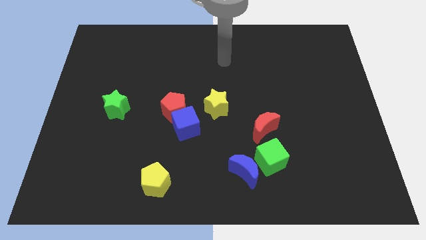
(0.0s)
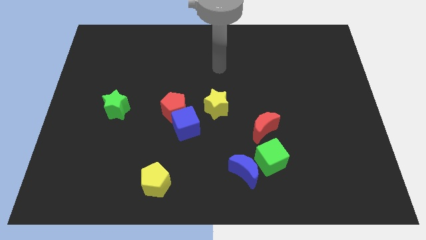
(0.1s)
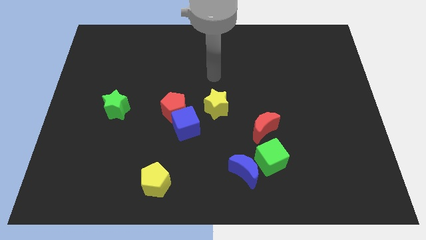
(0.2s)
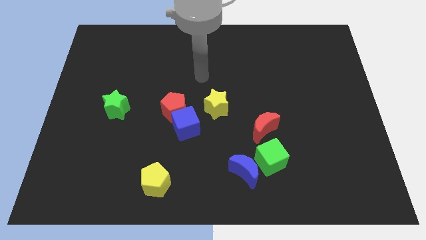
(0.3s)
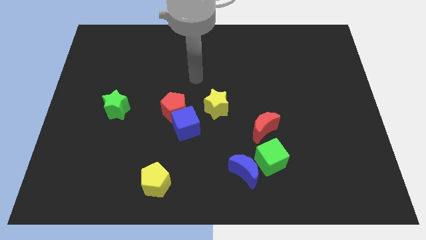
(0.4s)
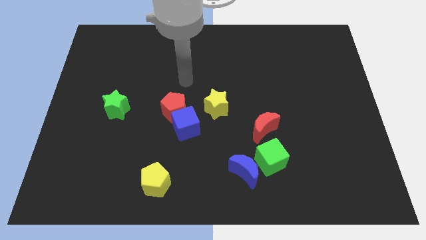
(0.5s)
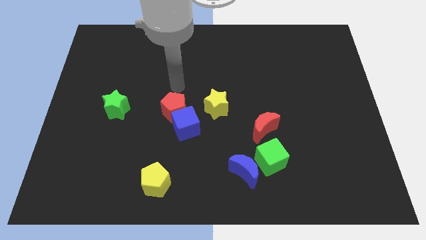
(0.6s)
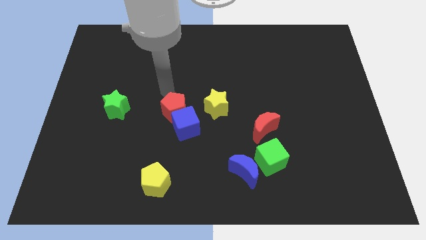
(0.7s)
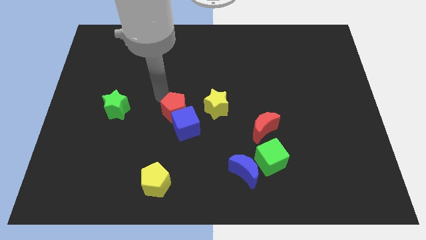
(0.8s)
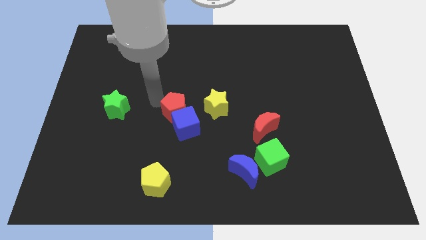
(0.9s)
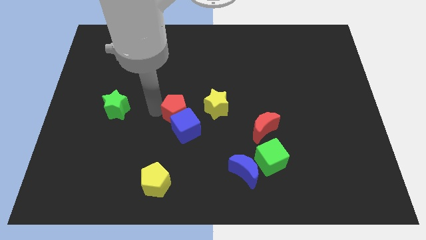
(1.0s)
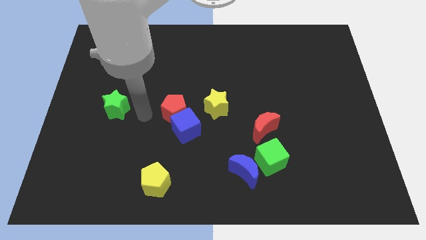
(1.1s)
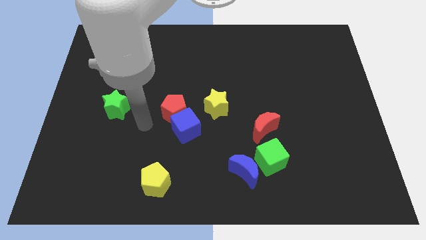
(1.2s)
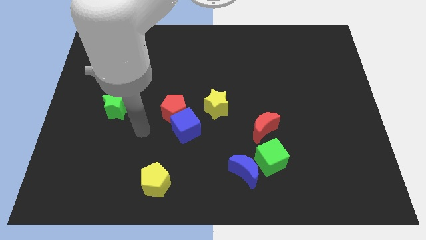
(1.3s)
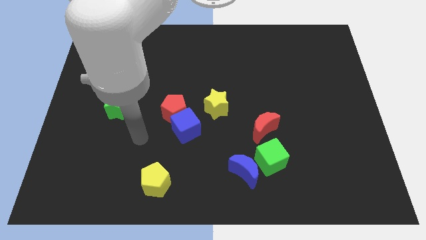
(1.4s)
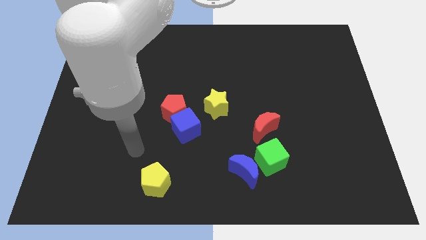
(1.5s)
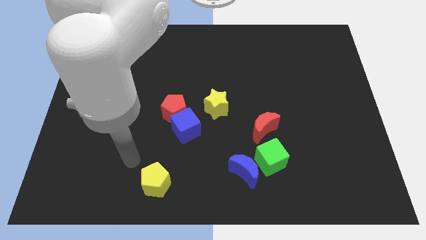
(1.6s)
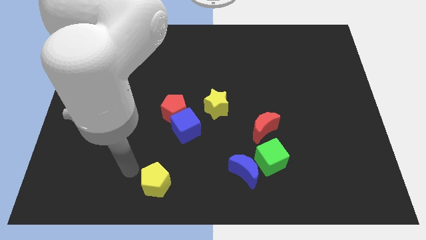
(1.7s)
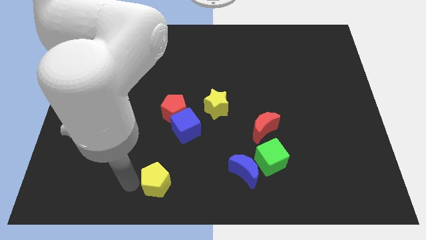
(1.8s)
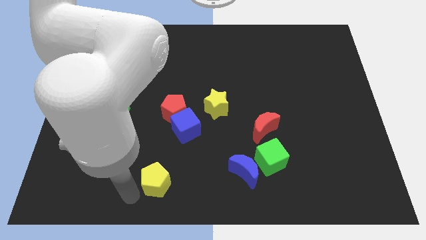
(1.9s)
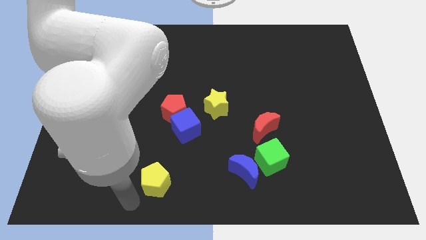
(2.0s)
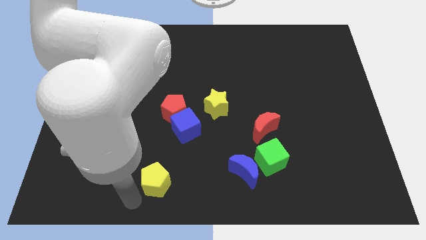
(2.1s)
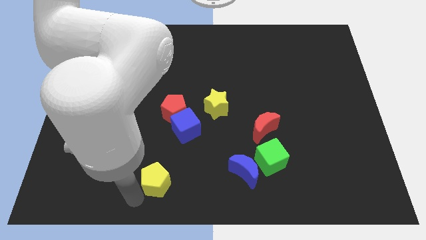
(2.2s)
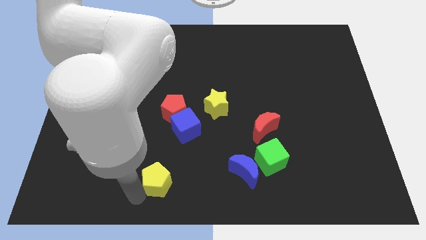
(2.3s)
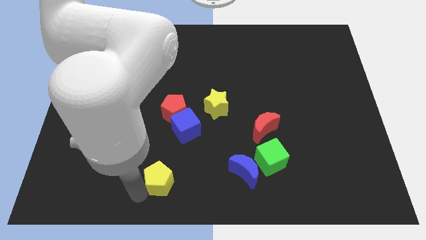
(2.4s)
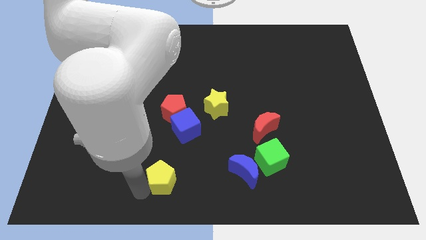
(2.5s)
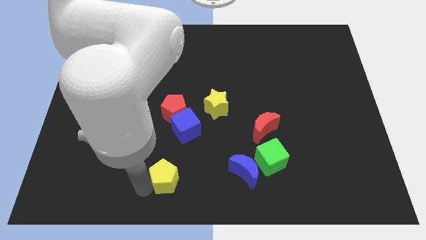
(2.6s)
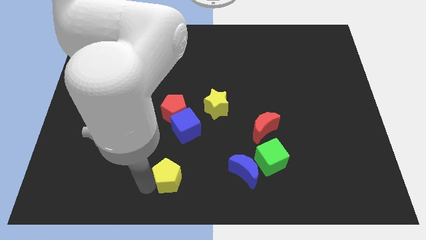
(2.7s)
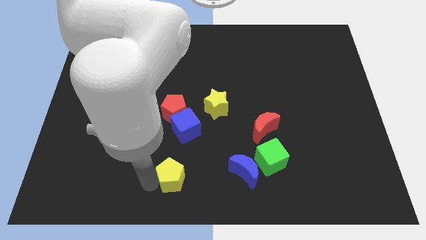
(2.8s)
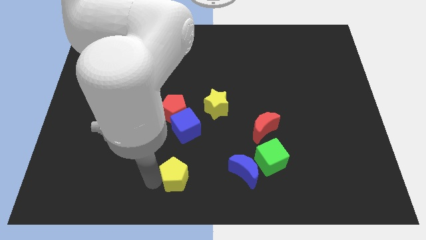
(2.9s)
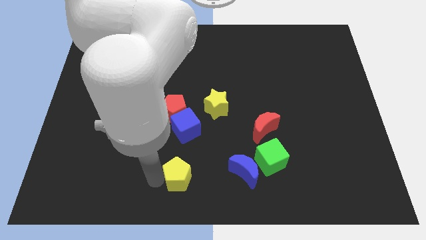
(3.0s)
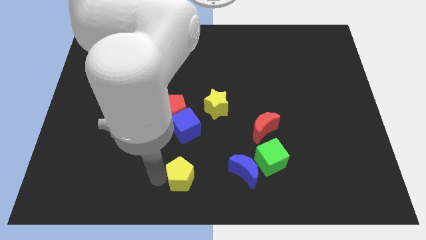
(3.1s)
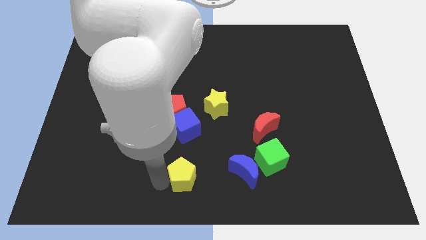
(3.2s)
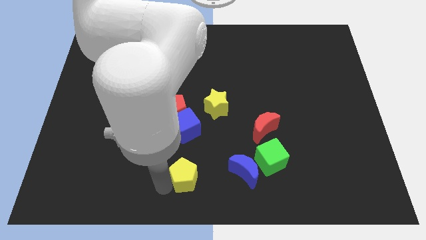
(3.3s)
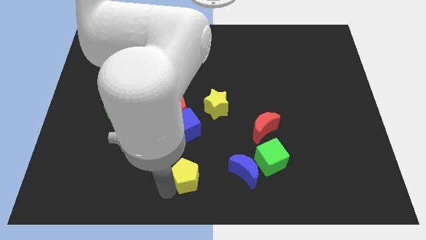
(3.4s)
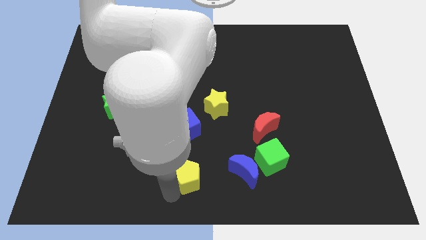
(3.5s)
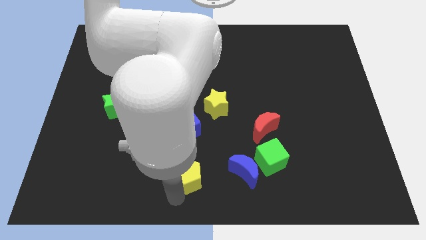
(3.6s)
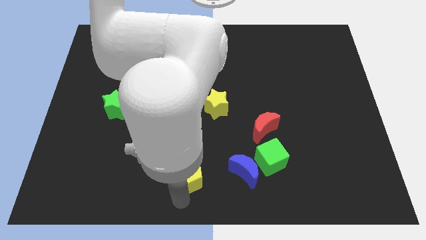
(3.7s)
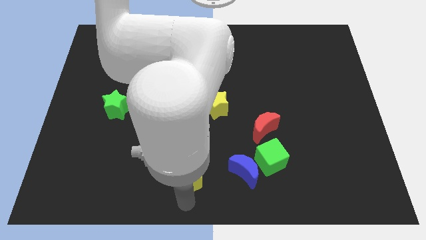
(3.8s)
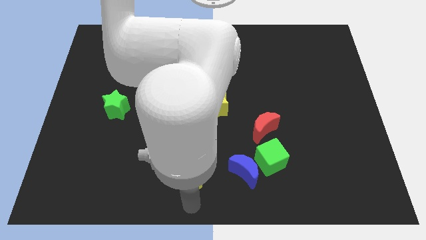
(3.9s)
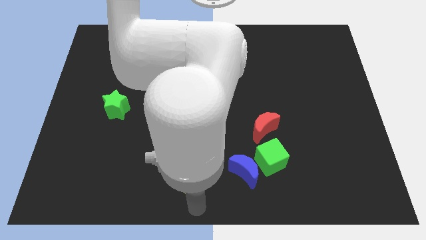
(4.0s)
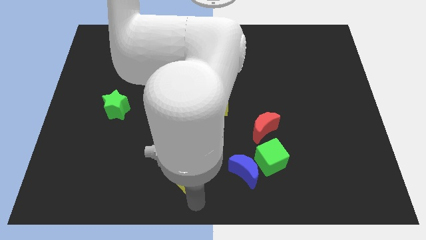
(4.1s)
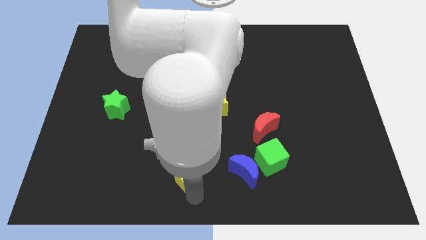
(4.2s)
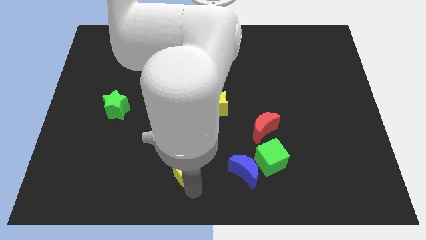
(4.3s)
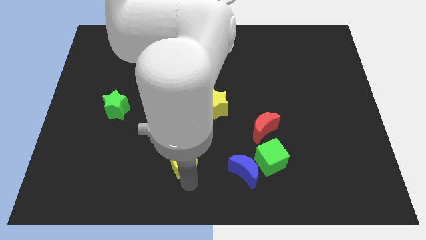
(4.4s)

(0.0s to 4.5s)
slightly move the yellow pentagon upwards and then right

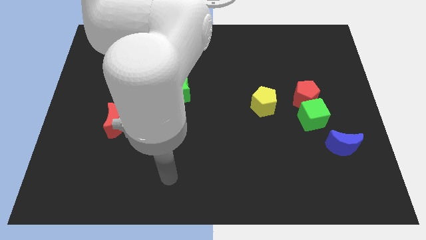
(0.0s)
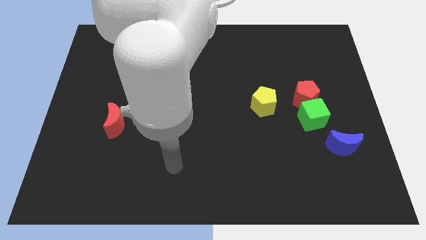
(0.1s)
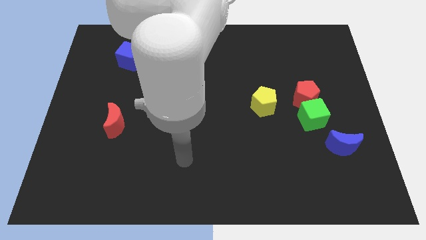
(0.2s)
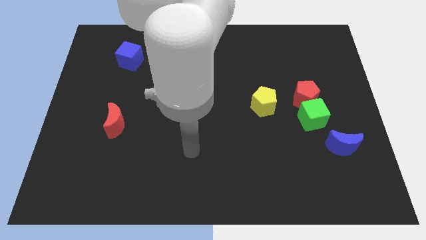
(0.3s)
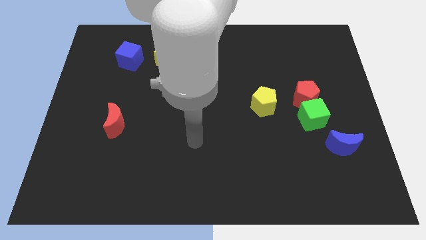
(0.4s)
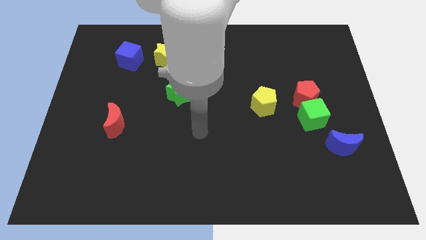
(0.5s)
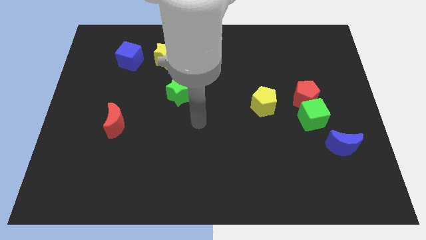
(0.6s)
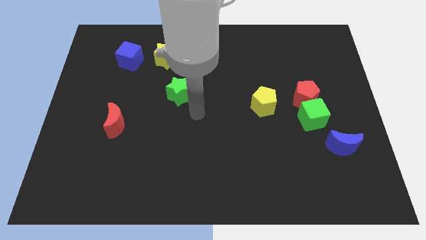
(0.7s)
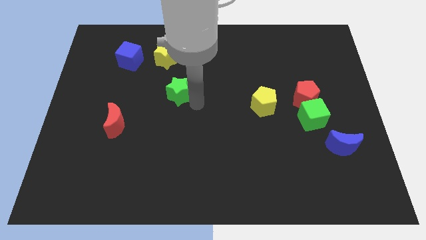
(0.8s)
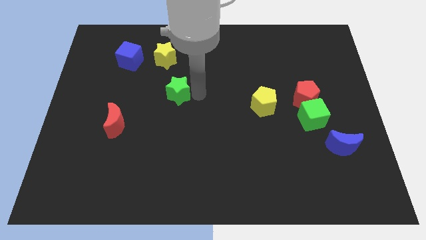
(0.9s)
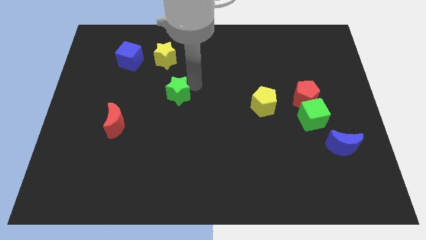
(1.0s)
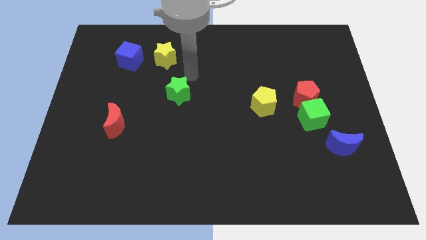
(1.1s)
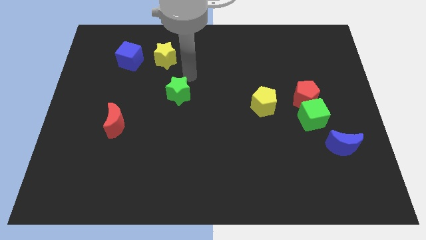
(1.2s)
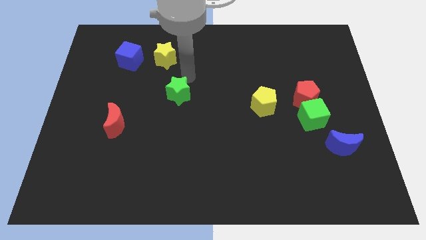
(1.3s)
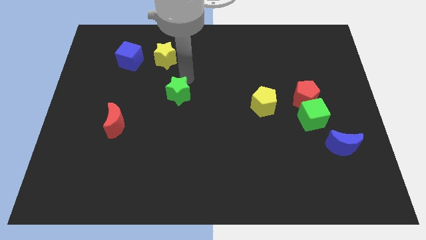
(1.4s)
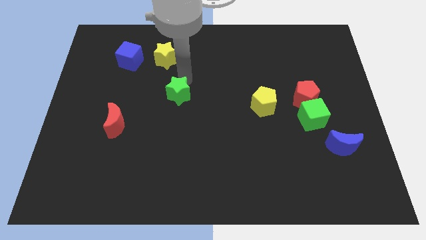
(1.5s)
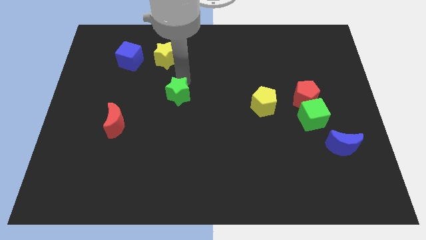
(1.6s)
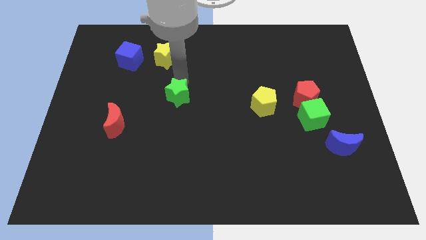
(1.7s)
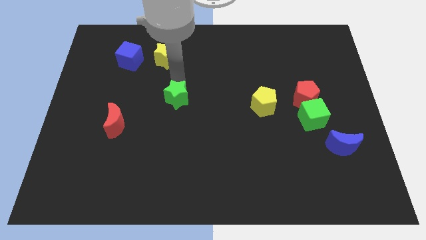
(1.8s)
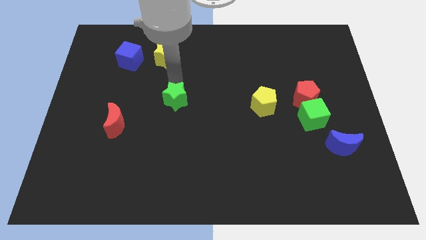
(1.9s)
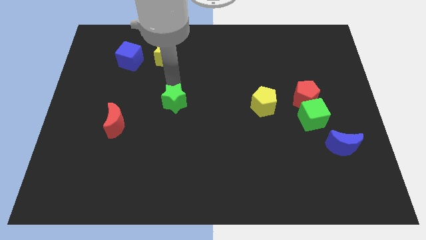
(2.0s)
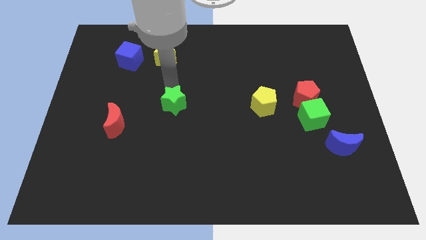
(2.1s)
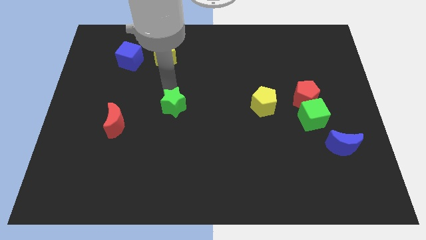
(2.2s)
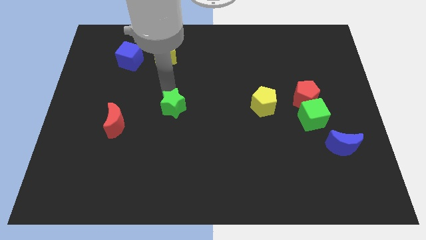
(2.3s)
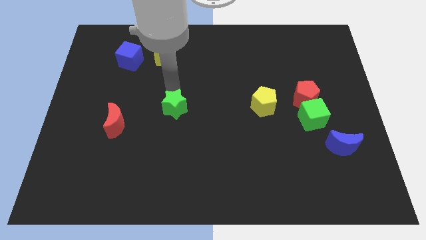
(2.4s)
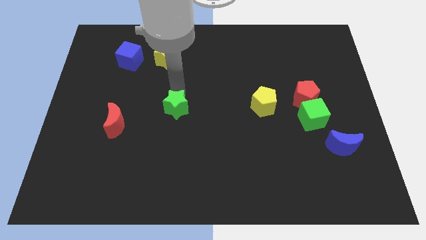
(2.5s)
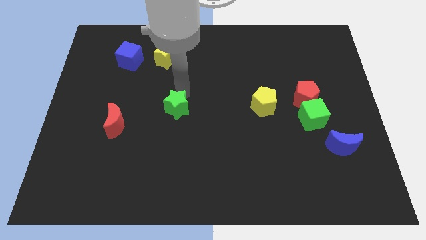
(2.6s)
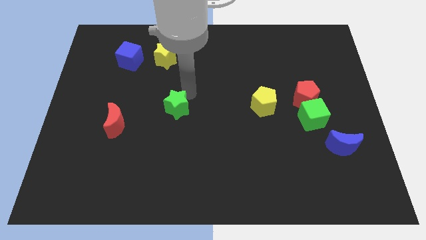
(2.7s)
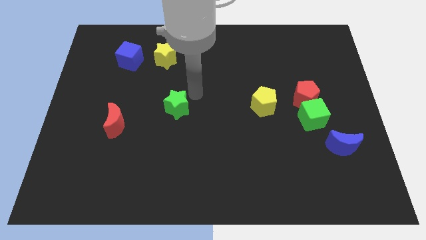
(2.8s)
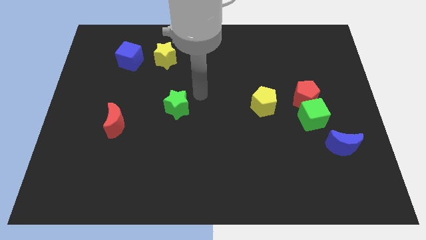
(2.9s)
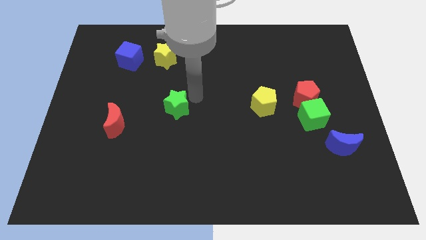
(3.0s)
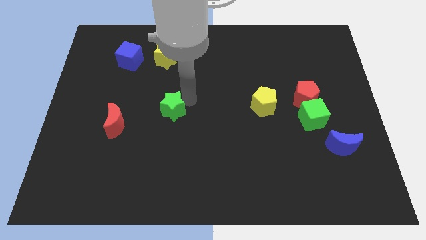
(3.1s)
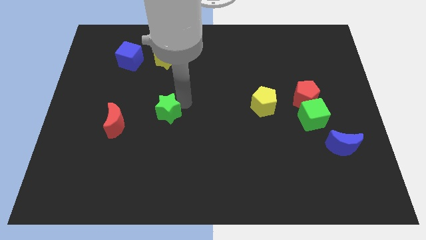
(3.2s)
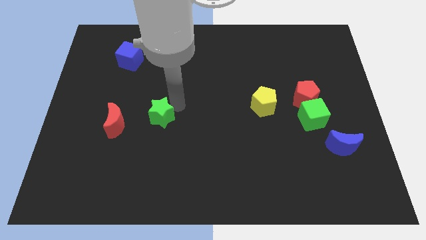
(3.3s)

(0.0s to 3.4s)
slightly move the green star down and to the left diagonally
